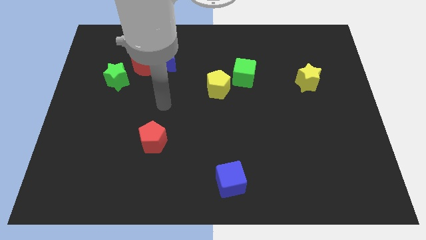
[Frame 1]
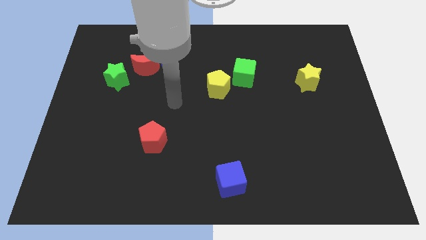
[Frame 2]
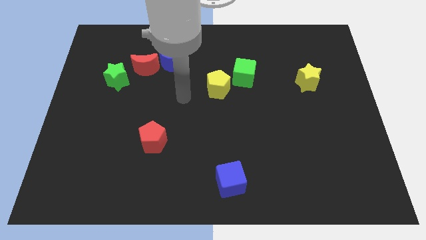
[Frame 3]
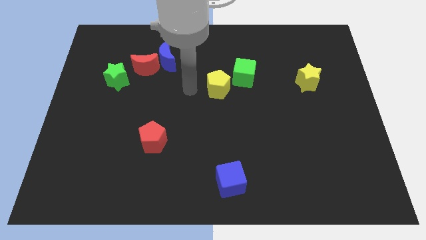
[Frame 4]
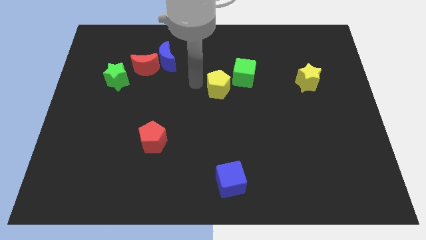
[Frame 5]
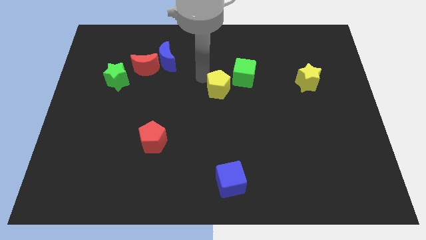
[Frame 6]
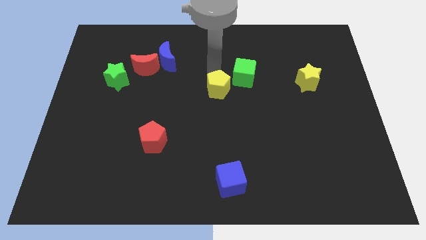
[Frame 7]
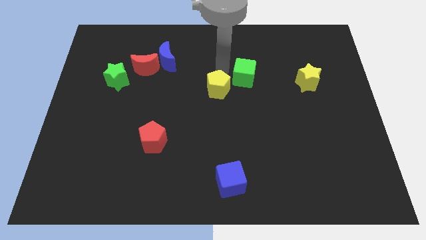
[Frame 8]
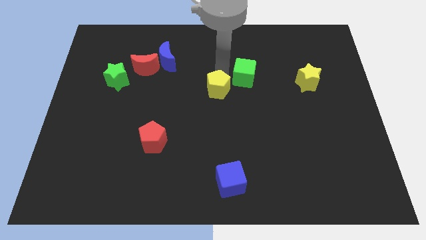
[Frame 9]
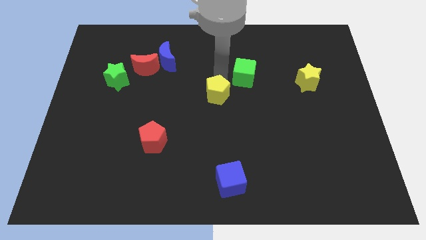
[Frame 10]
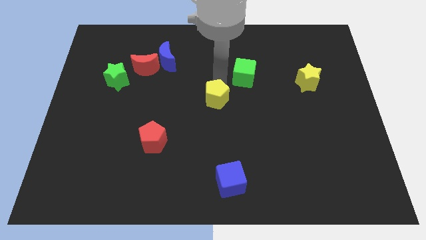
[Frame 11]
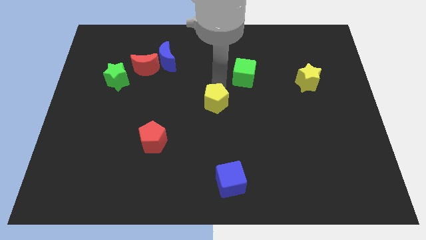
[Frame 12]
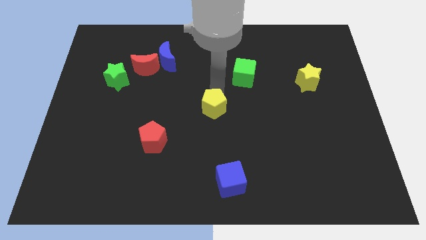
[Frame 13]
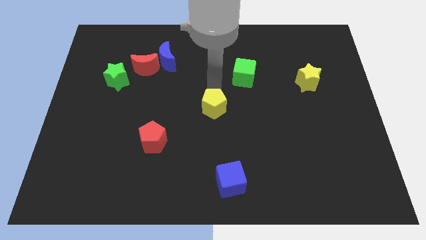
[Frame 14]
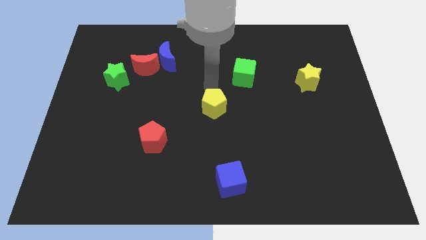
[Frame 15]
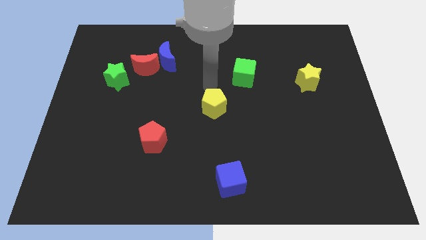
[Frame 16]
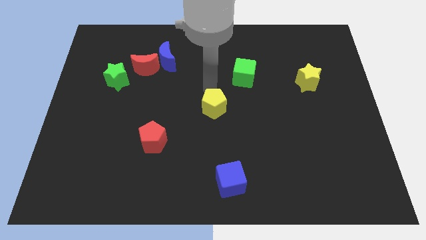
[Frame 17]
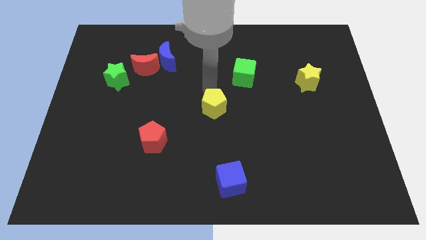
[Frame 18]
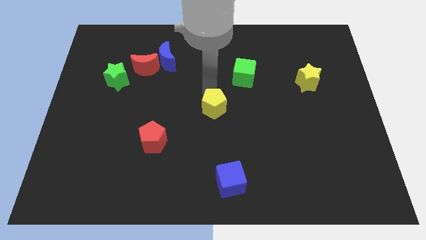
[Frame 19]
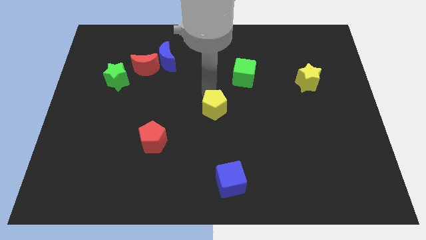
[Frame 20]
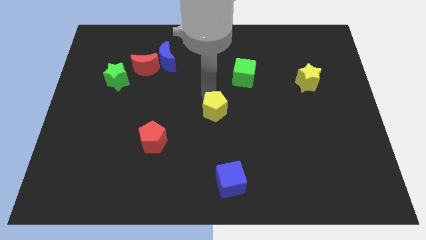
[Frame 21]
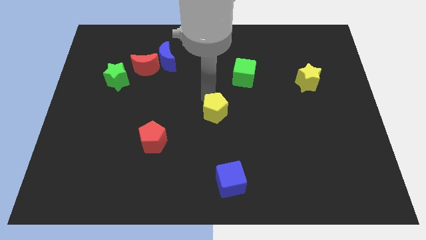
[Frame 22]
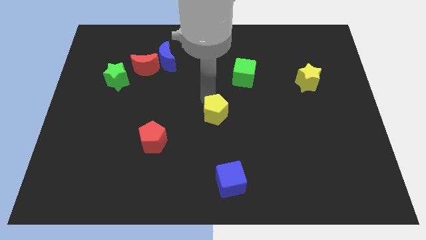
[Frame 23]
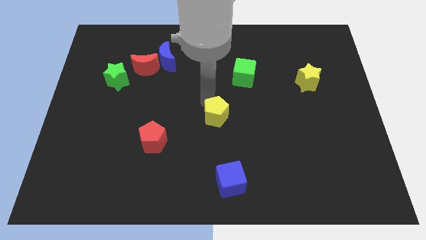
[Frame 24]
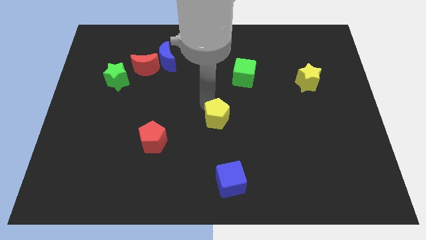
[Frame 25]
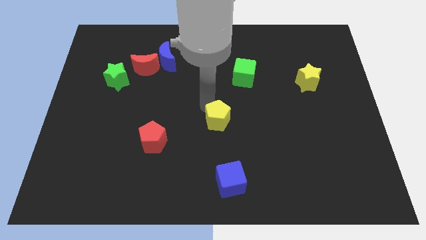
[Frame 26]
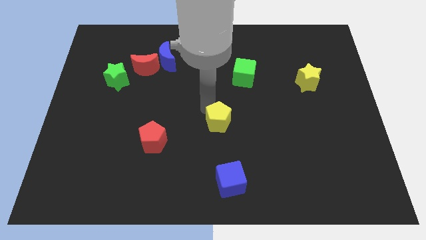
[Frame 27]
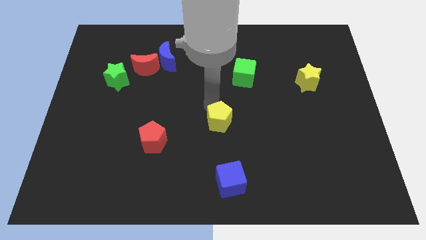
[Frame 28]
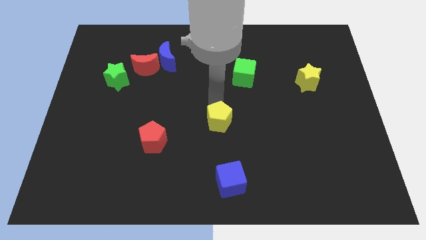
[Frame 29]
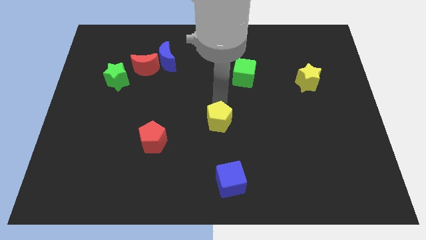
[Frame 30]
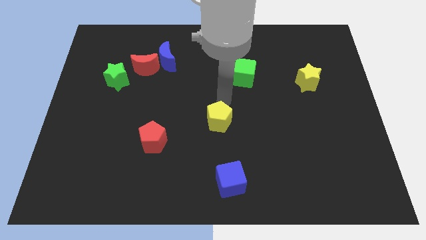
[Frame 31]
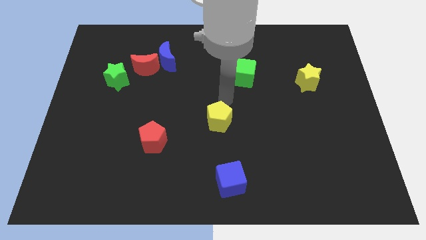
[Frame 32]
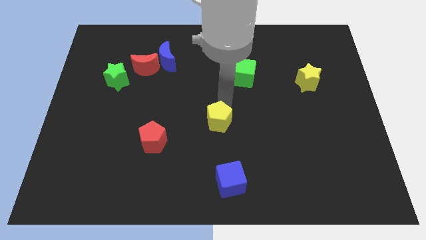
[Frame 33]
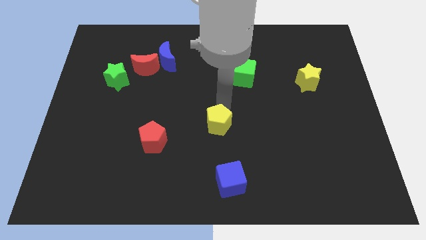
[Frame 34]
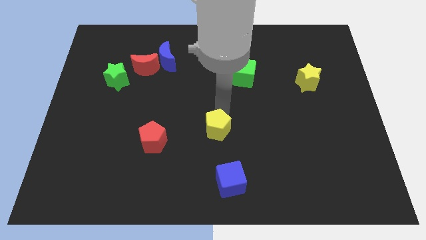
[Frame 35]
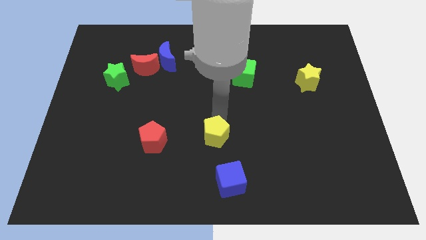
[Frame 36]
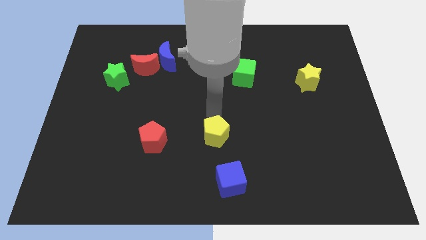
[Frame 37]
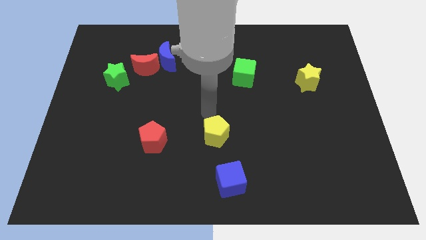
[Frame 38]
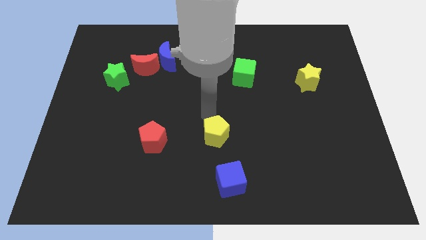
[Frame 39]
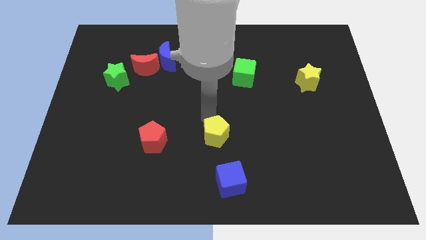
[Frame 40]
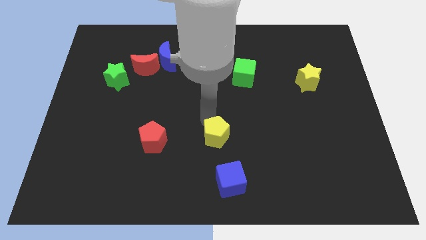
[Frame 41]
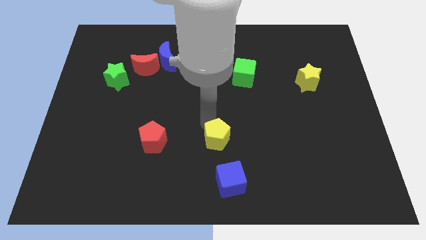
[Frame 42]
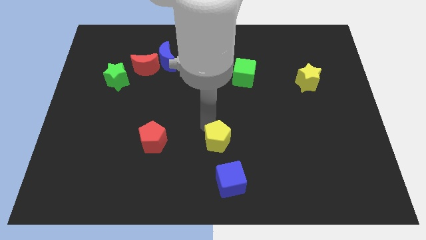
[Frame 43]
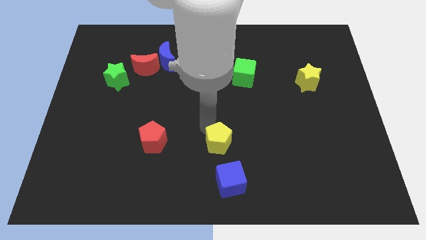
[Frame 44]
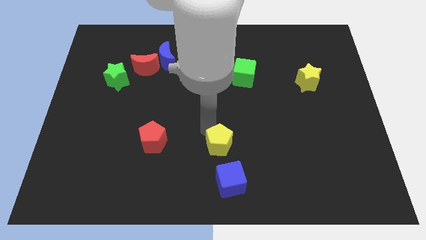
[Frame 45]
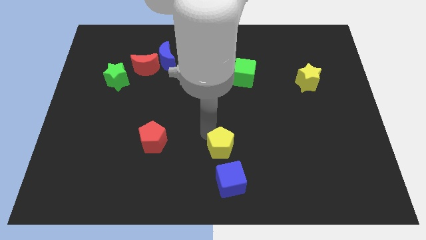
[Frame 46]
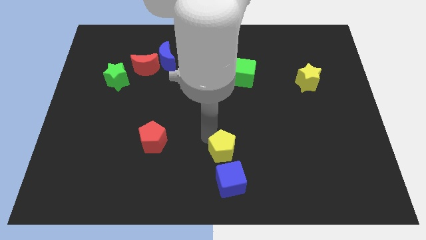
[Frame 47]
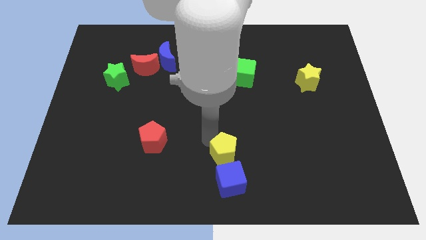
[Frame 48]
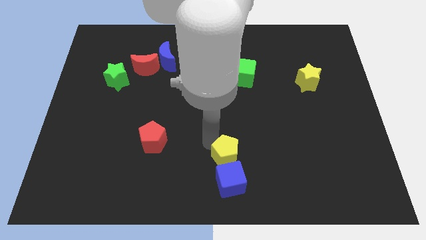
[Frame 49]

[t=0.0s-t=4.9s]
put the yellow pentagon close to the blue cube

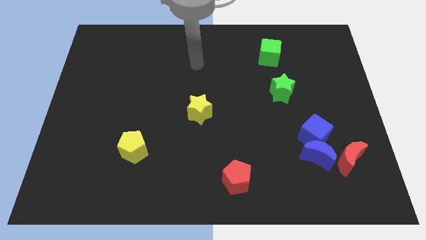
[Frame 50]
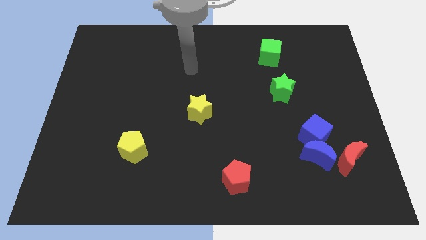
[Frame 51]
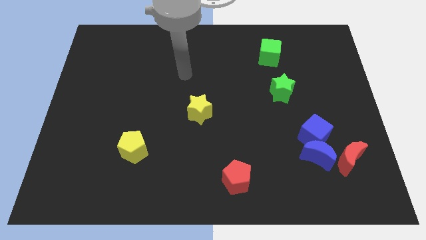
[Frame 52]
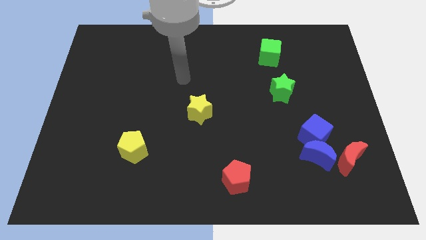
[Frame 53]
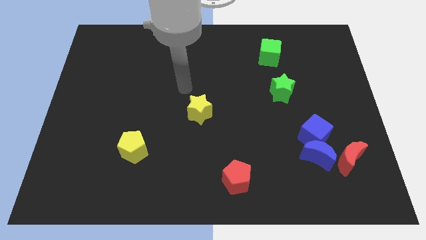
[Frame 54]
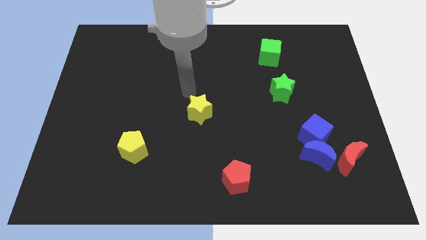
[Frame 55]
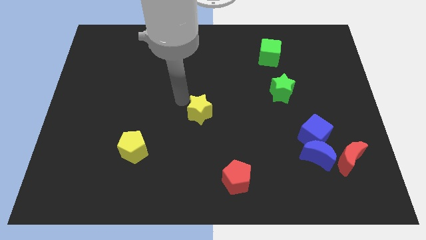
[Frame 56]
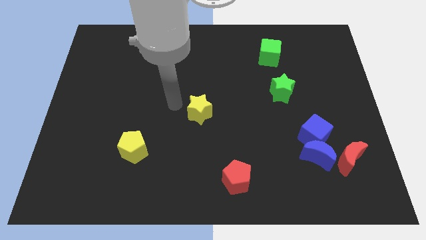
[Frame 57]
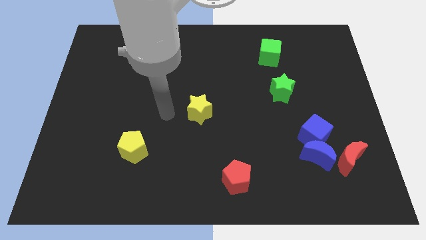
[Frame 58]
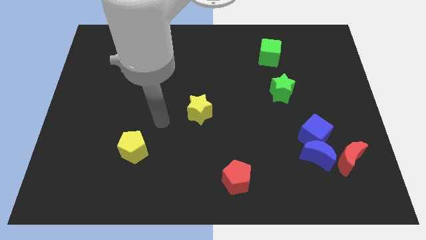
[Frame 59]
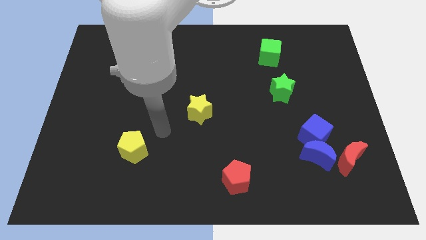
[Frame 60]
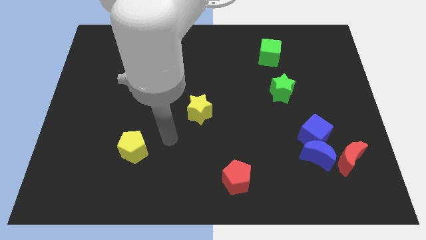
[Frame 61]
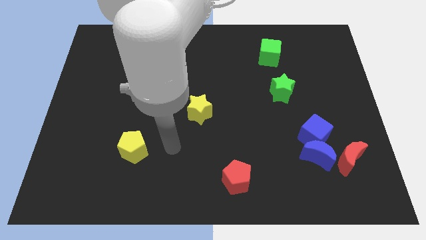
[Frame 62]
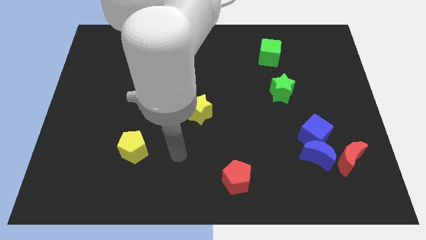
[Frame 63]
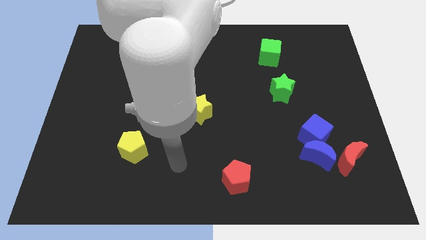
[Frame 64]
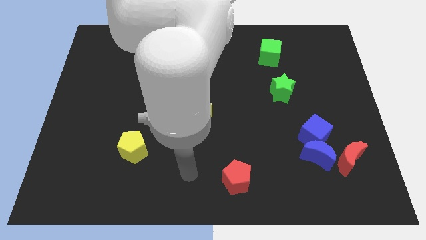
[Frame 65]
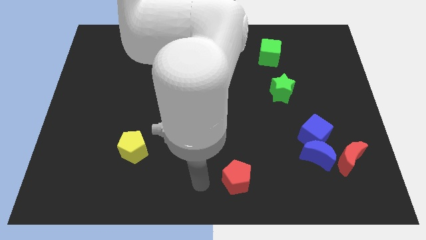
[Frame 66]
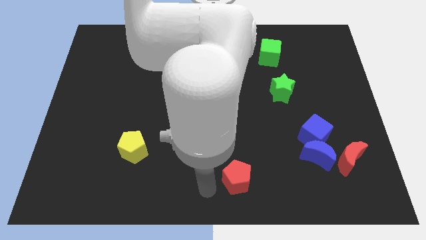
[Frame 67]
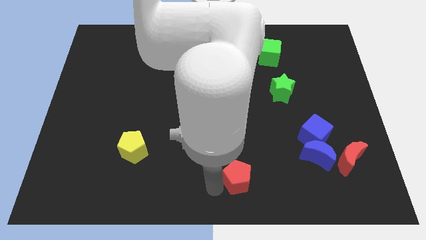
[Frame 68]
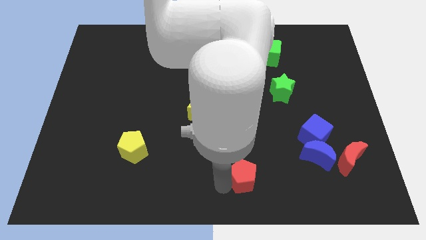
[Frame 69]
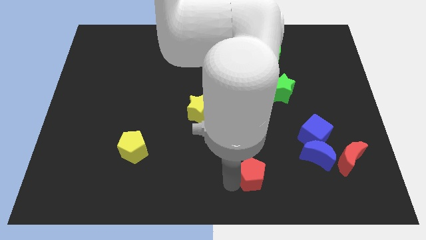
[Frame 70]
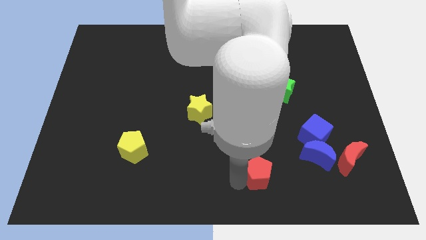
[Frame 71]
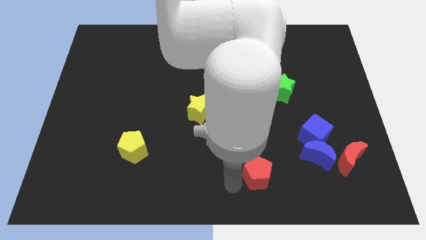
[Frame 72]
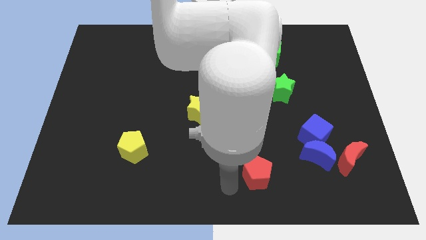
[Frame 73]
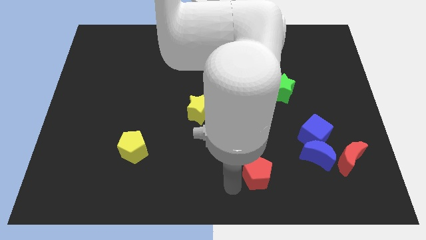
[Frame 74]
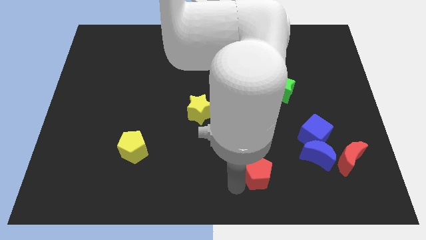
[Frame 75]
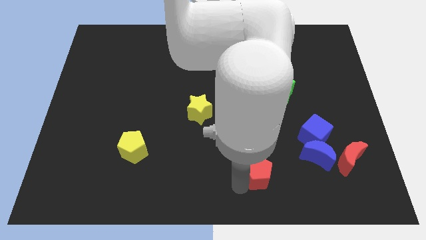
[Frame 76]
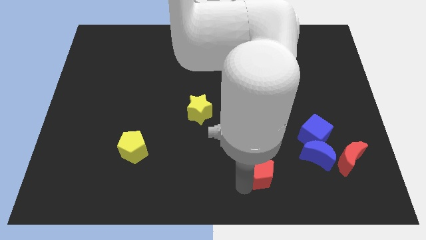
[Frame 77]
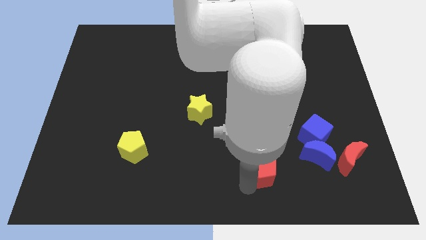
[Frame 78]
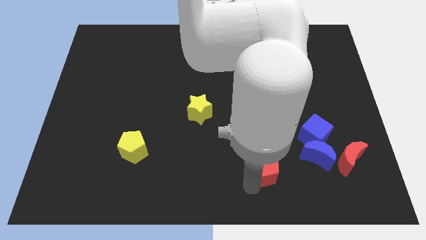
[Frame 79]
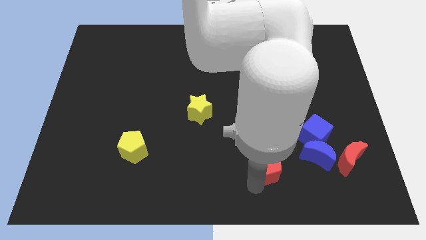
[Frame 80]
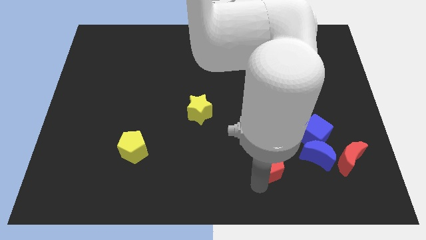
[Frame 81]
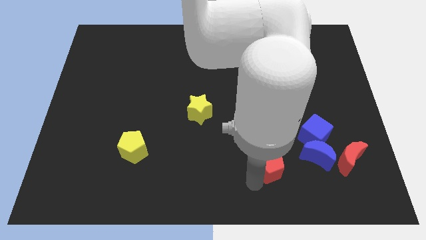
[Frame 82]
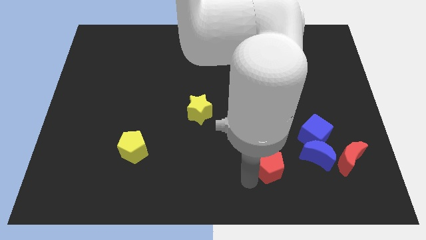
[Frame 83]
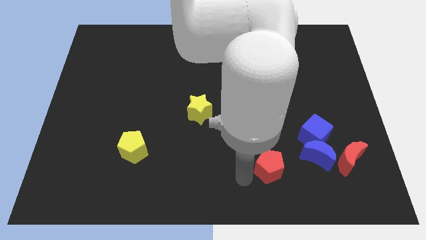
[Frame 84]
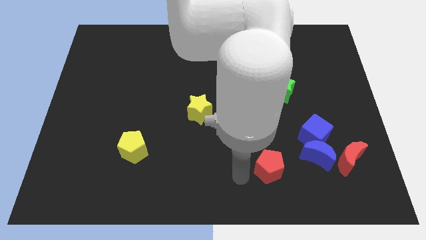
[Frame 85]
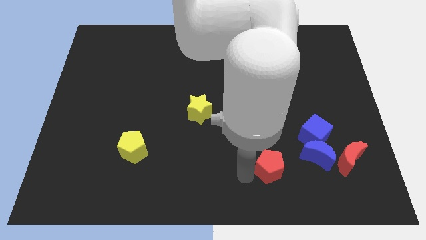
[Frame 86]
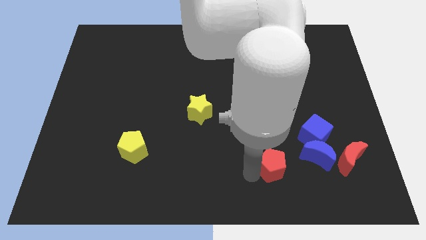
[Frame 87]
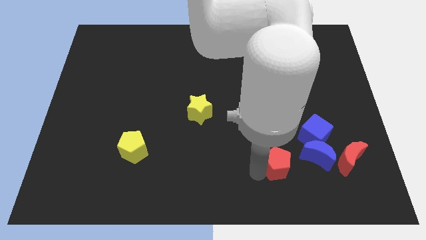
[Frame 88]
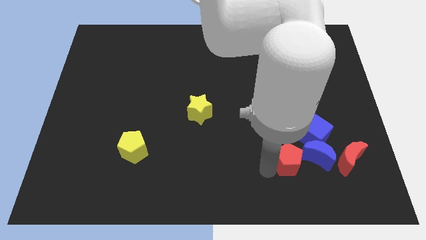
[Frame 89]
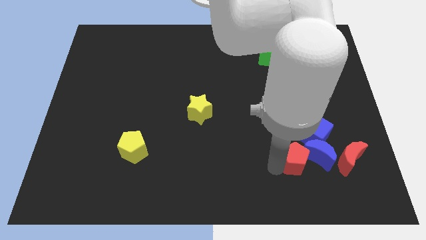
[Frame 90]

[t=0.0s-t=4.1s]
put the red pentagon close to the blue moon
